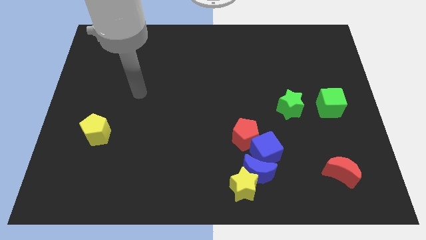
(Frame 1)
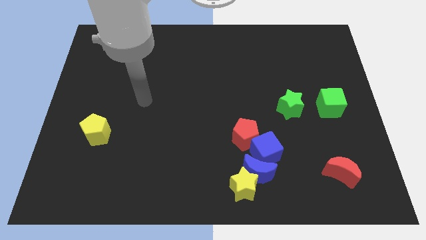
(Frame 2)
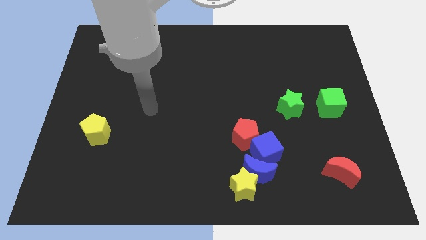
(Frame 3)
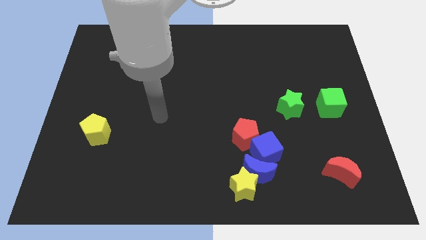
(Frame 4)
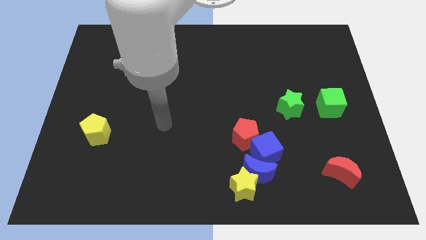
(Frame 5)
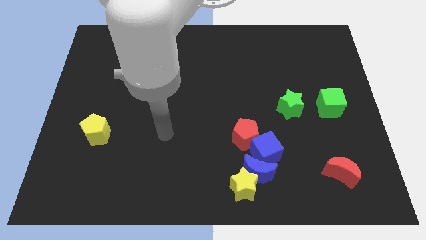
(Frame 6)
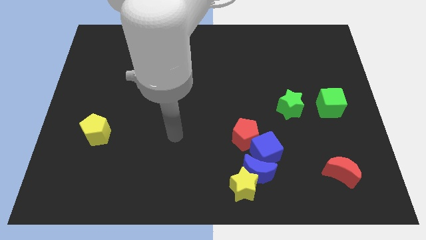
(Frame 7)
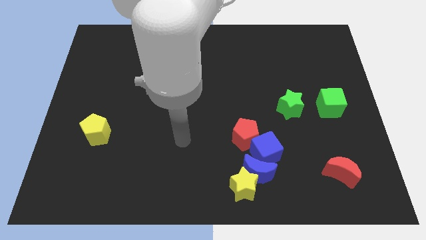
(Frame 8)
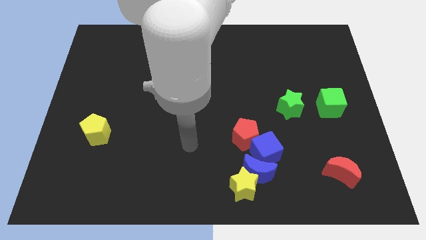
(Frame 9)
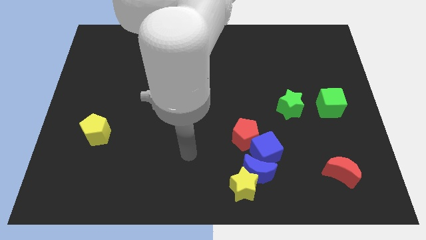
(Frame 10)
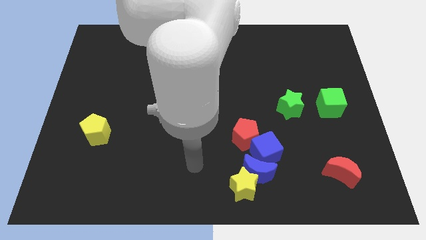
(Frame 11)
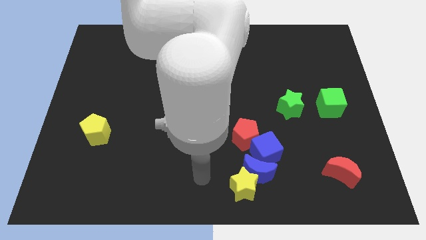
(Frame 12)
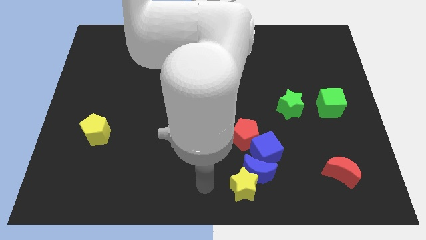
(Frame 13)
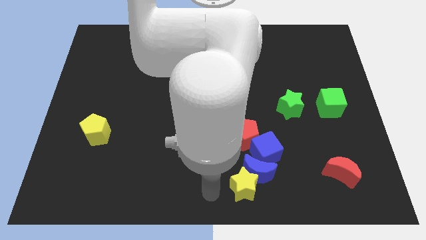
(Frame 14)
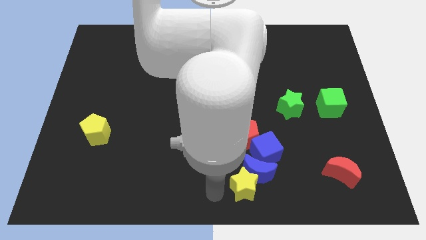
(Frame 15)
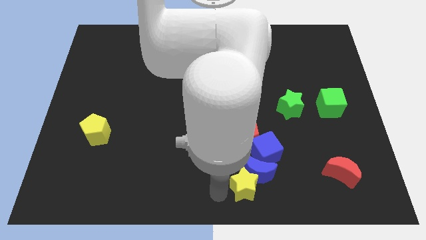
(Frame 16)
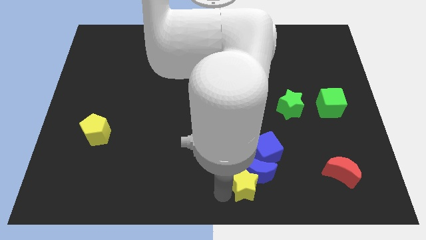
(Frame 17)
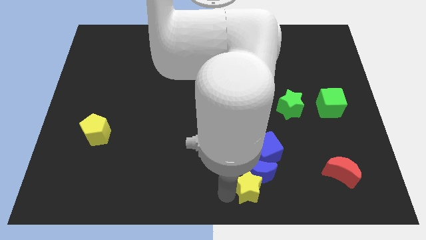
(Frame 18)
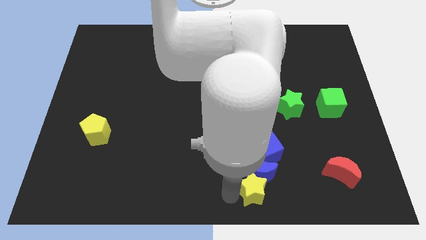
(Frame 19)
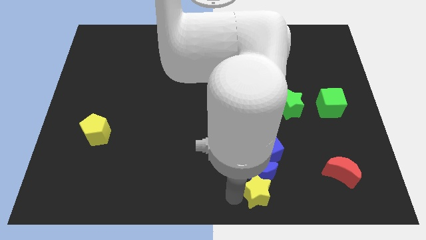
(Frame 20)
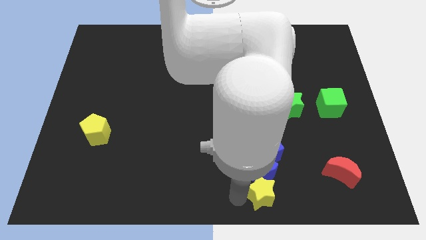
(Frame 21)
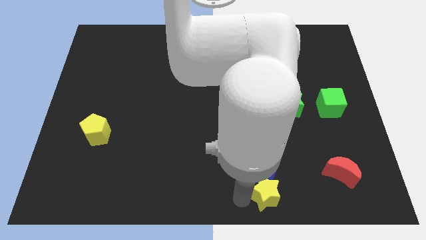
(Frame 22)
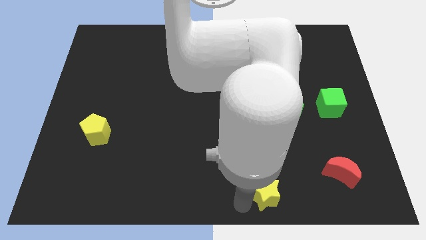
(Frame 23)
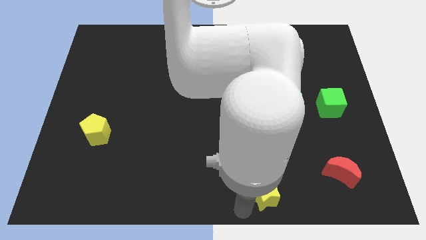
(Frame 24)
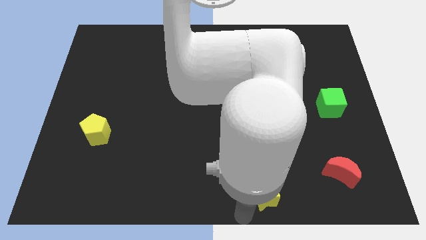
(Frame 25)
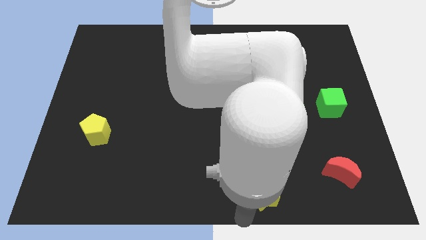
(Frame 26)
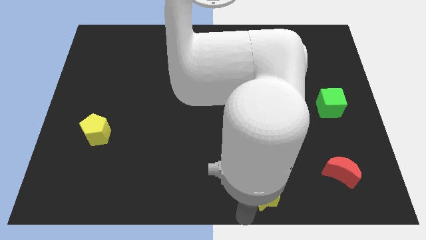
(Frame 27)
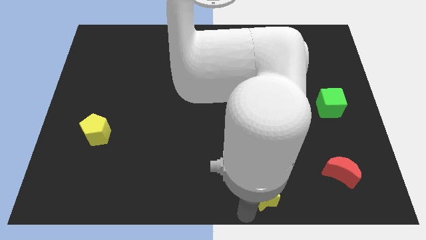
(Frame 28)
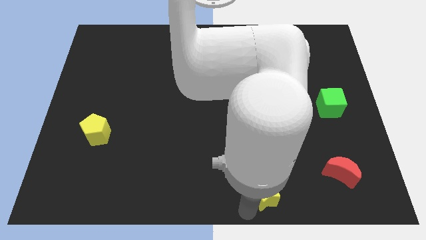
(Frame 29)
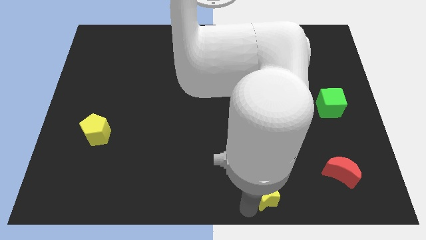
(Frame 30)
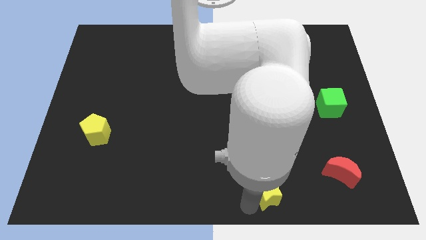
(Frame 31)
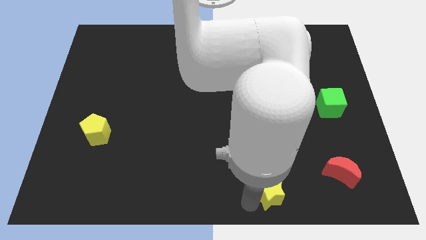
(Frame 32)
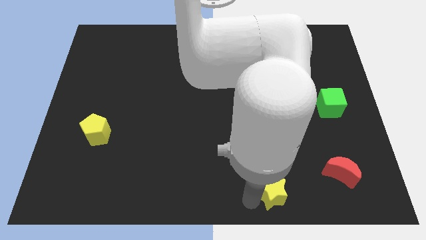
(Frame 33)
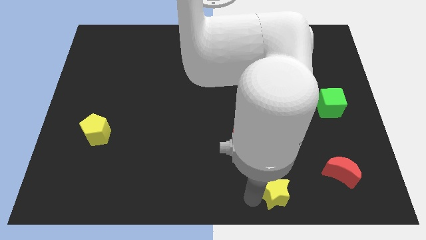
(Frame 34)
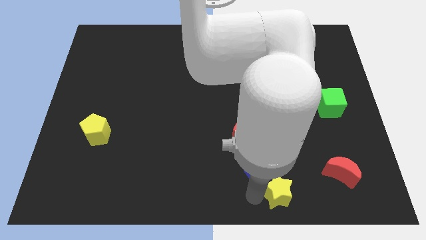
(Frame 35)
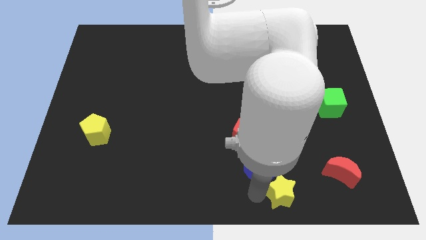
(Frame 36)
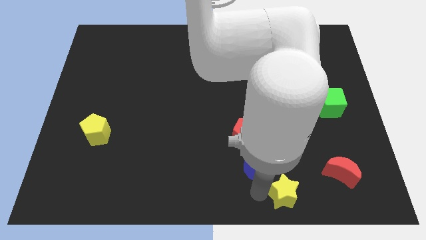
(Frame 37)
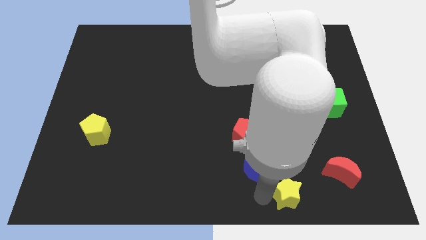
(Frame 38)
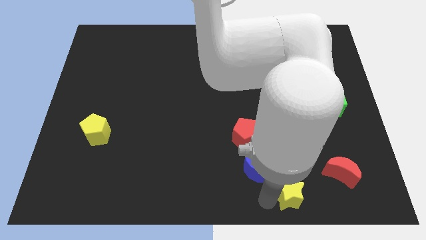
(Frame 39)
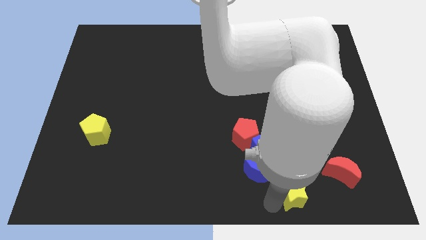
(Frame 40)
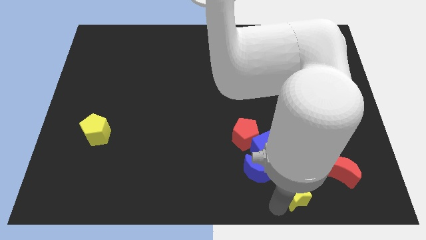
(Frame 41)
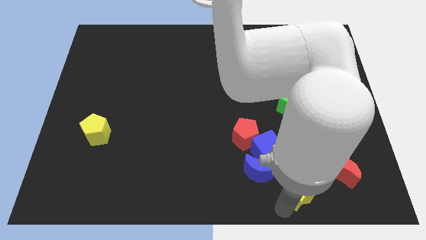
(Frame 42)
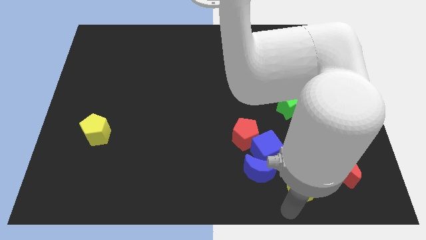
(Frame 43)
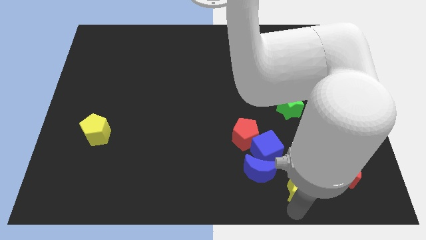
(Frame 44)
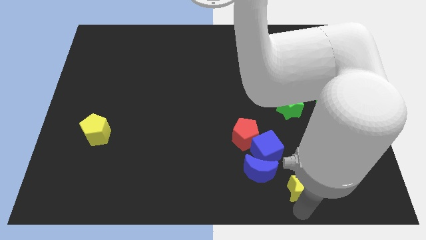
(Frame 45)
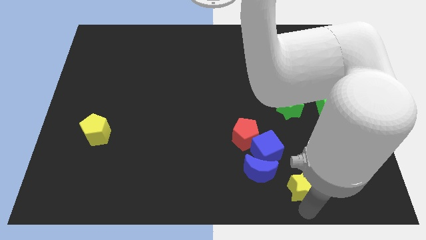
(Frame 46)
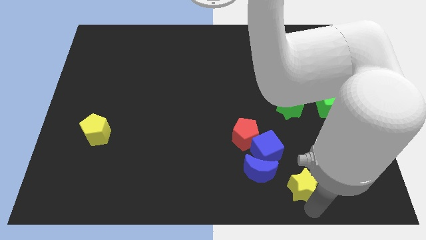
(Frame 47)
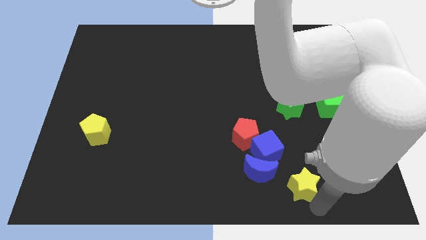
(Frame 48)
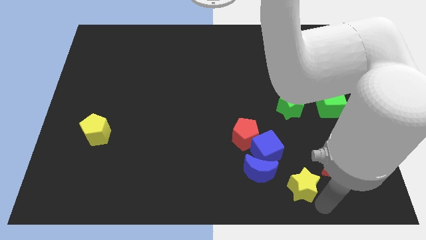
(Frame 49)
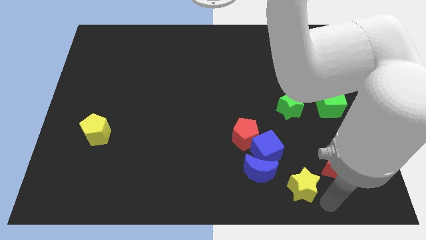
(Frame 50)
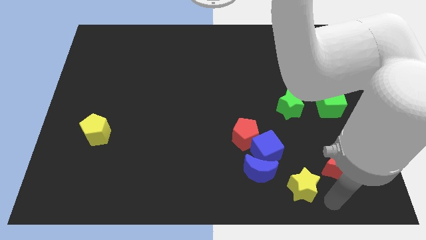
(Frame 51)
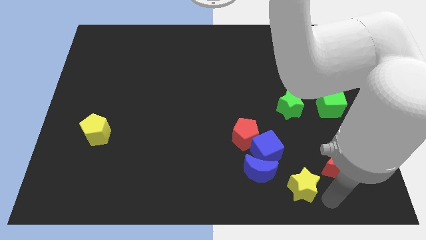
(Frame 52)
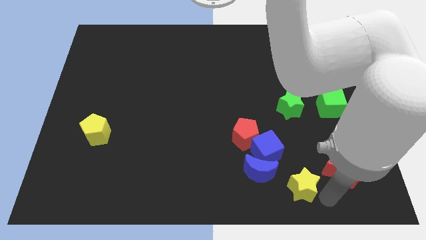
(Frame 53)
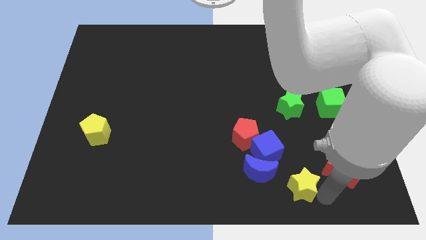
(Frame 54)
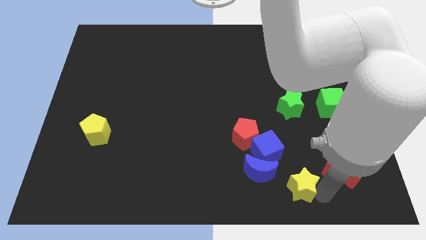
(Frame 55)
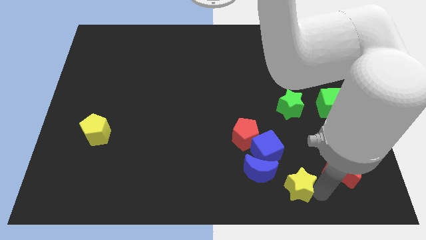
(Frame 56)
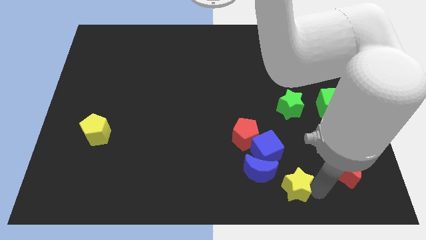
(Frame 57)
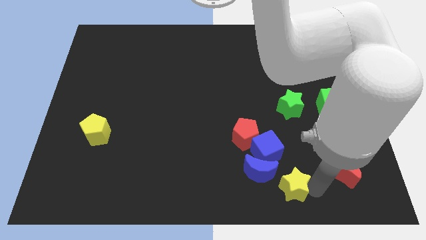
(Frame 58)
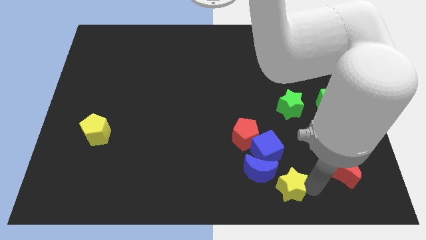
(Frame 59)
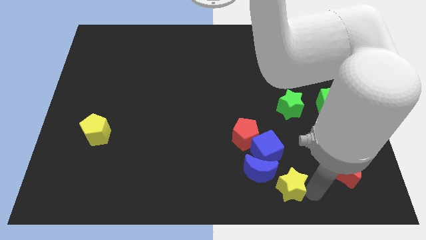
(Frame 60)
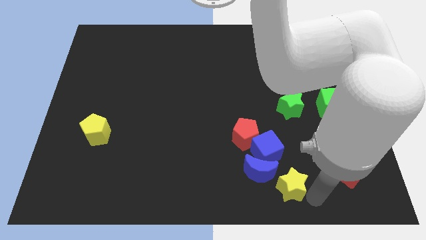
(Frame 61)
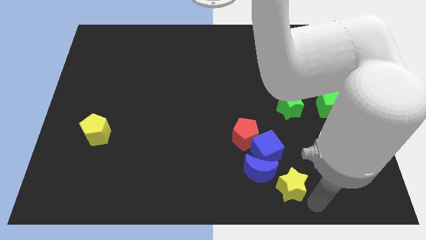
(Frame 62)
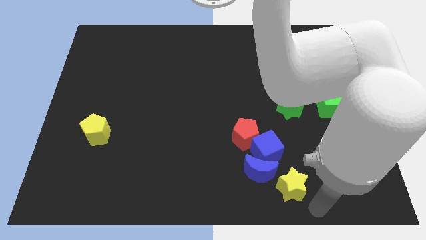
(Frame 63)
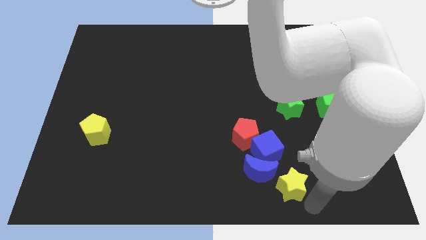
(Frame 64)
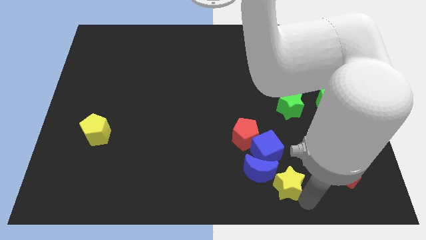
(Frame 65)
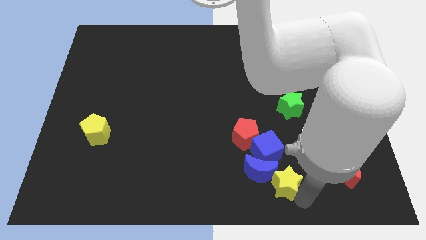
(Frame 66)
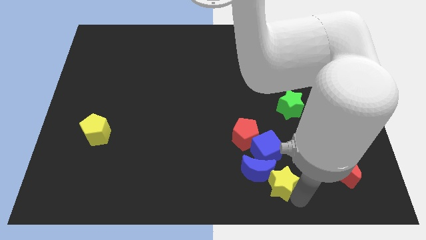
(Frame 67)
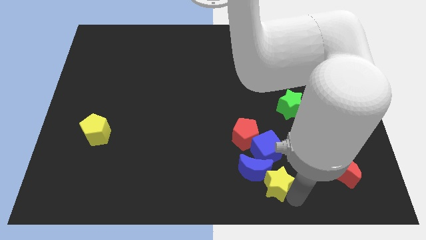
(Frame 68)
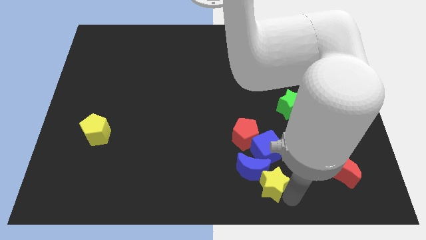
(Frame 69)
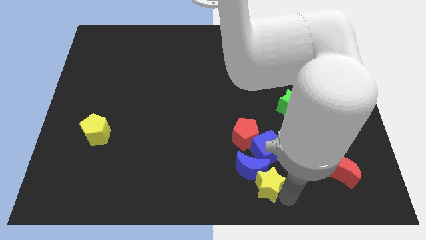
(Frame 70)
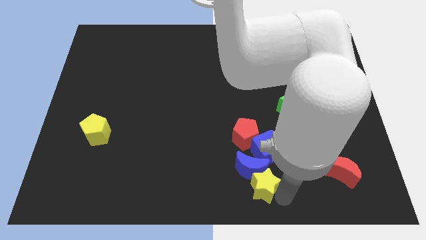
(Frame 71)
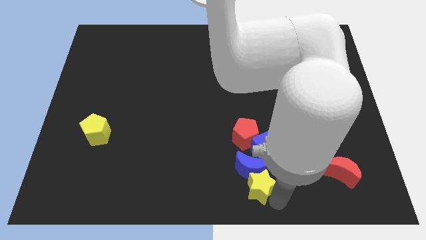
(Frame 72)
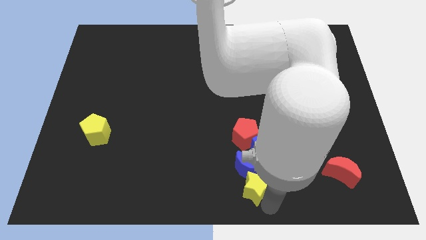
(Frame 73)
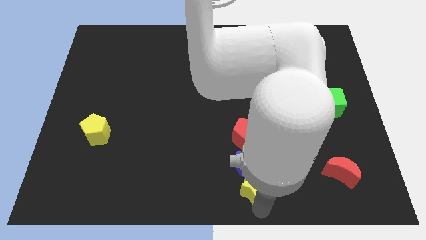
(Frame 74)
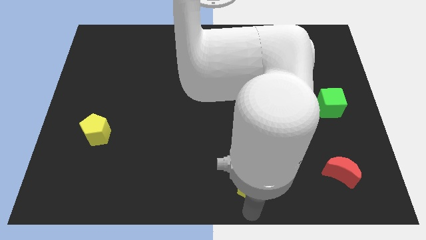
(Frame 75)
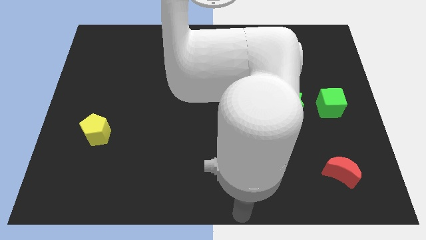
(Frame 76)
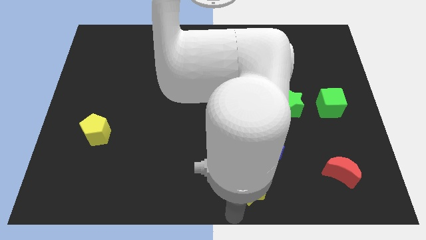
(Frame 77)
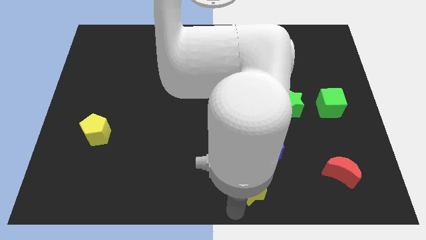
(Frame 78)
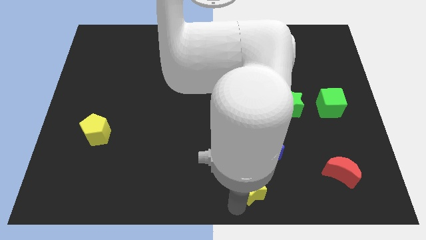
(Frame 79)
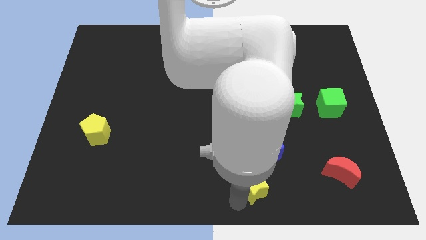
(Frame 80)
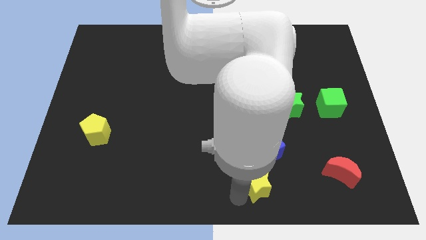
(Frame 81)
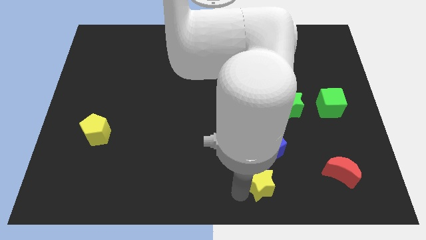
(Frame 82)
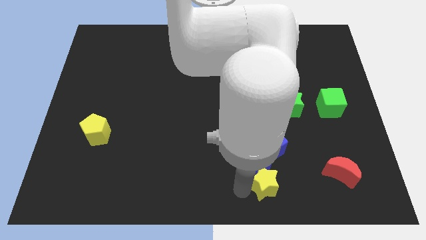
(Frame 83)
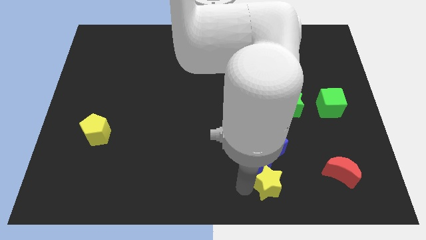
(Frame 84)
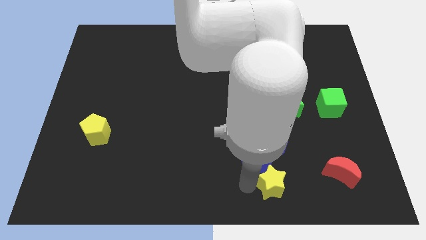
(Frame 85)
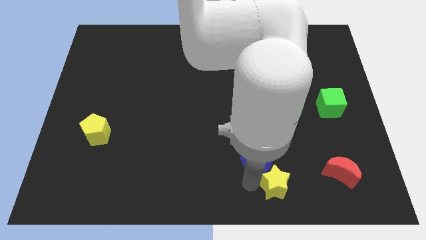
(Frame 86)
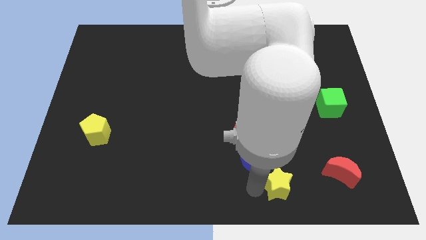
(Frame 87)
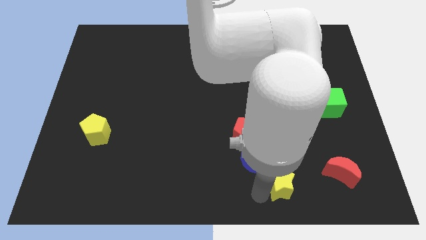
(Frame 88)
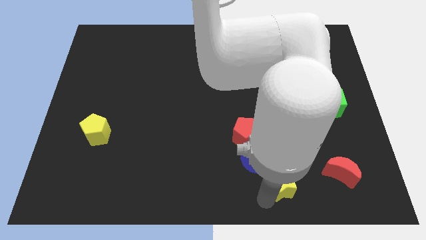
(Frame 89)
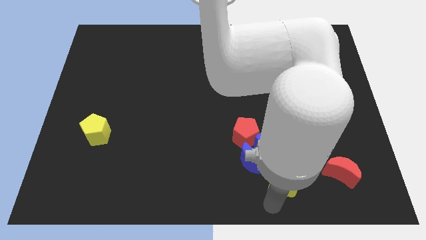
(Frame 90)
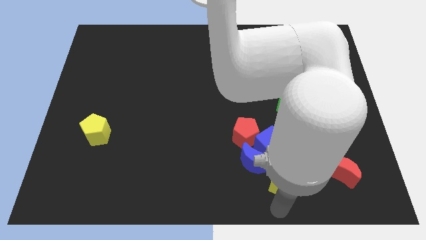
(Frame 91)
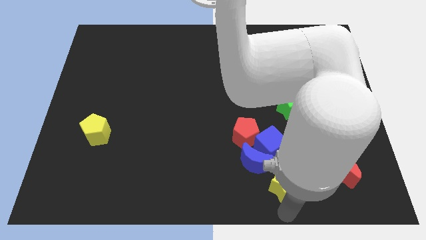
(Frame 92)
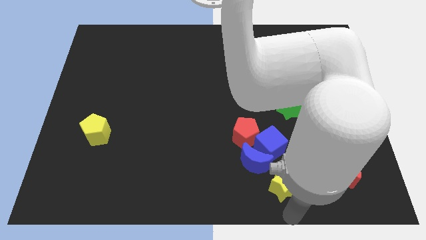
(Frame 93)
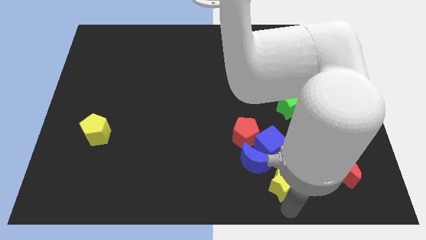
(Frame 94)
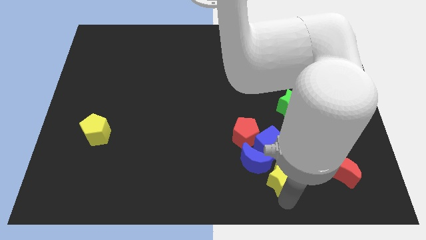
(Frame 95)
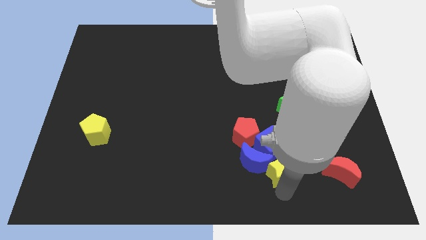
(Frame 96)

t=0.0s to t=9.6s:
slide the yellow star to the bottom right of the red pentagon
